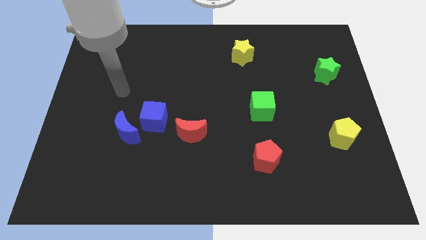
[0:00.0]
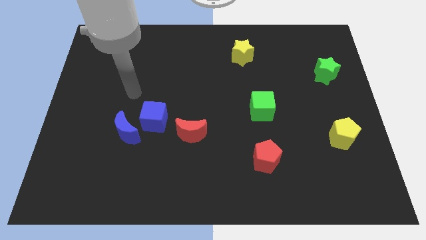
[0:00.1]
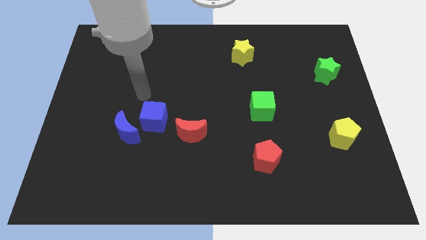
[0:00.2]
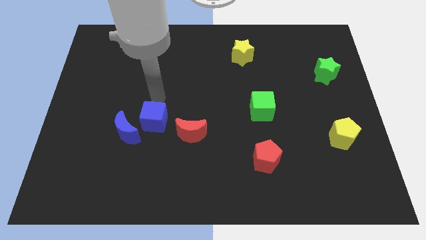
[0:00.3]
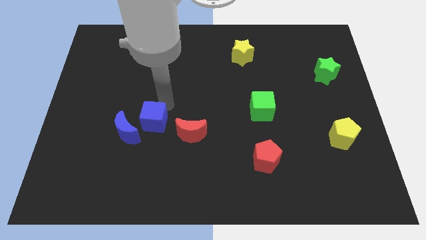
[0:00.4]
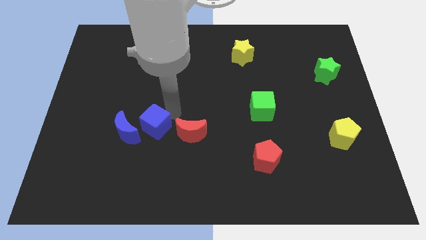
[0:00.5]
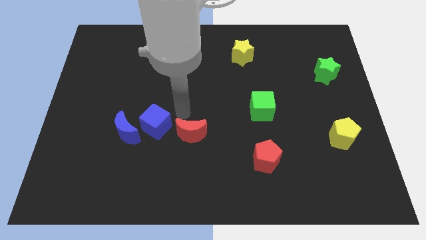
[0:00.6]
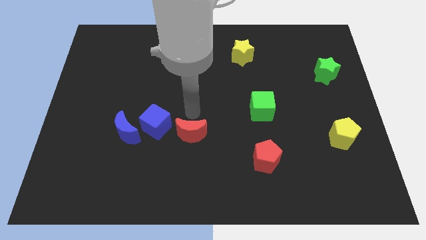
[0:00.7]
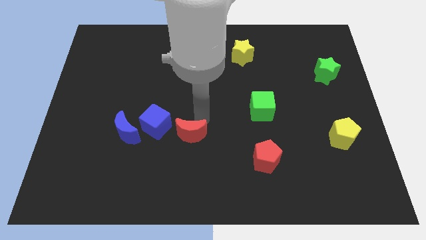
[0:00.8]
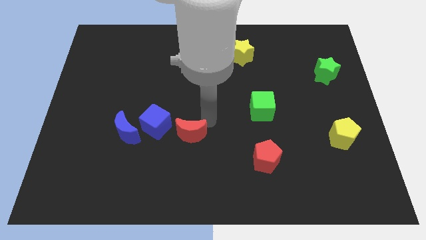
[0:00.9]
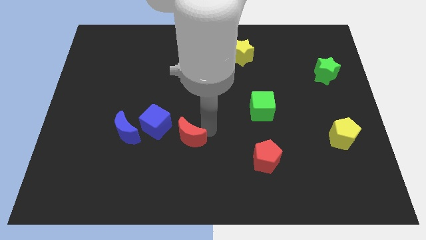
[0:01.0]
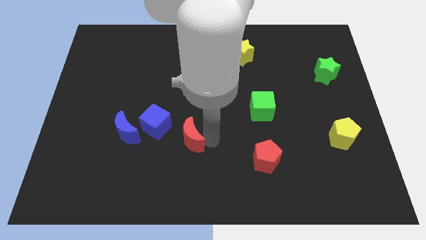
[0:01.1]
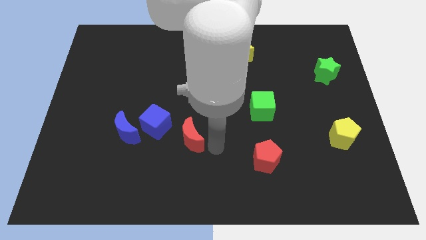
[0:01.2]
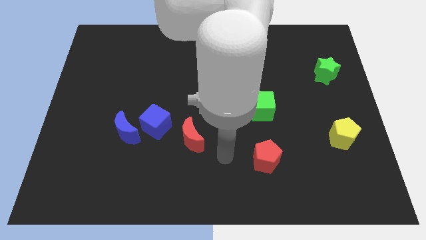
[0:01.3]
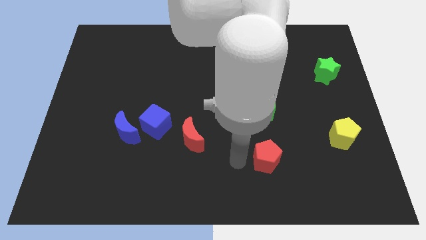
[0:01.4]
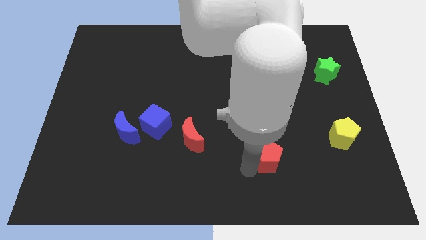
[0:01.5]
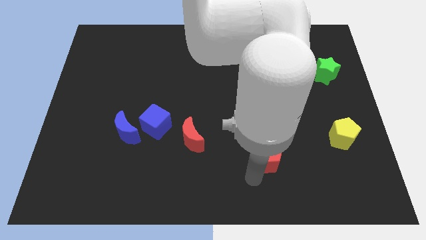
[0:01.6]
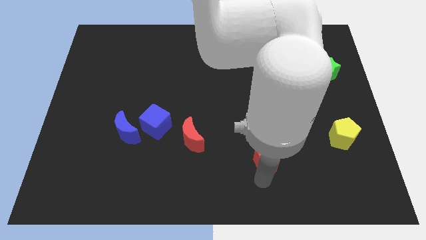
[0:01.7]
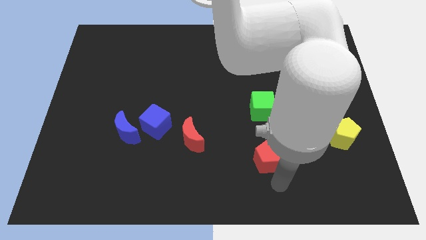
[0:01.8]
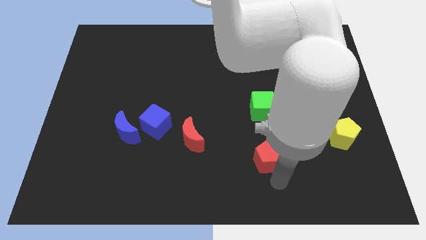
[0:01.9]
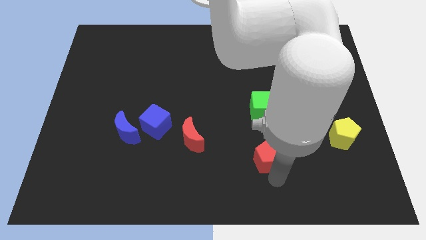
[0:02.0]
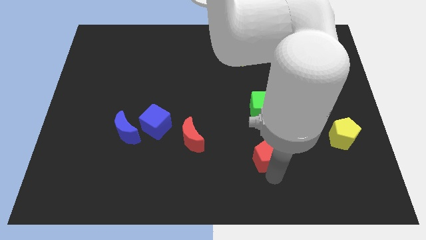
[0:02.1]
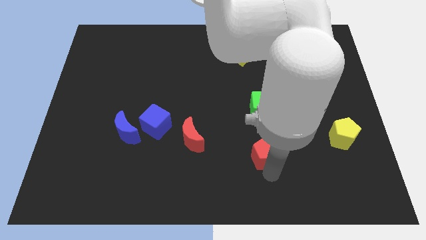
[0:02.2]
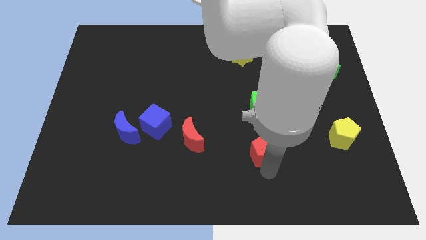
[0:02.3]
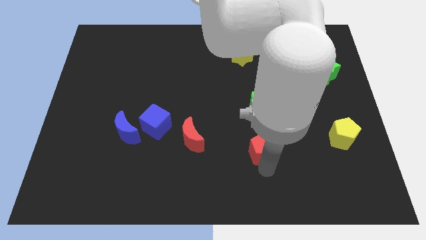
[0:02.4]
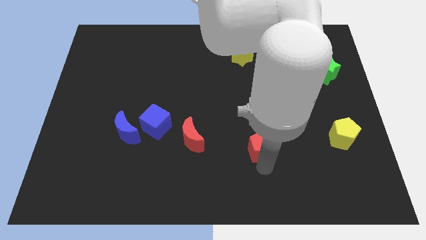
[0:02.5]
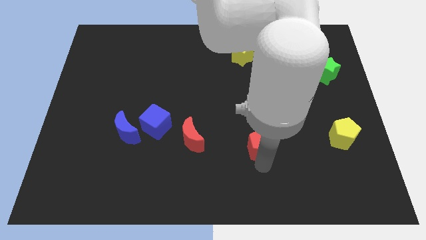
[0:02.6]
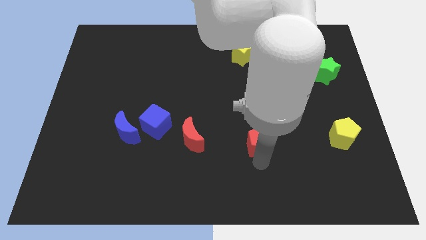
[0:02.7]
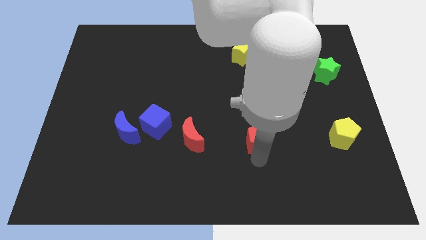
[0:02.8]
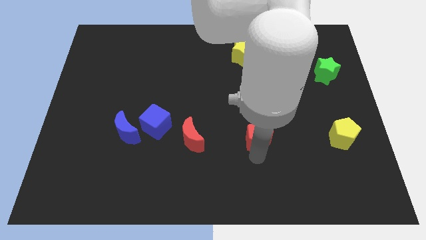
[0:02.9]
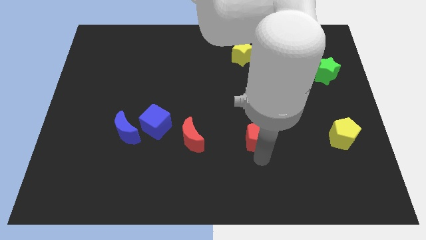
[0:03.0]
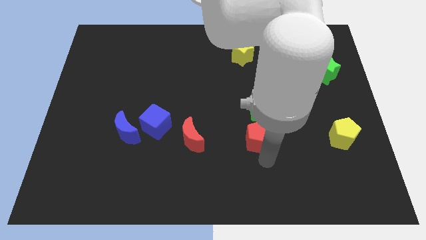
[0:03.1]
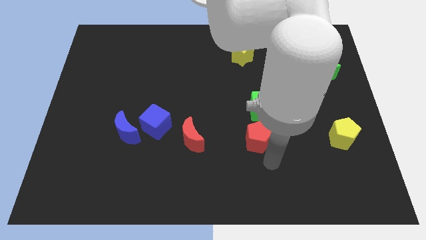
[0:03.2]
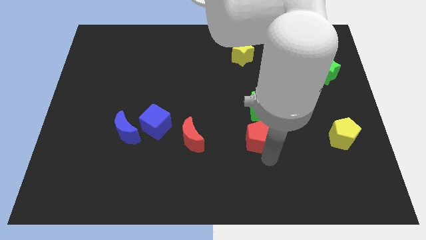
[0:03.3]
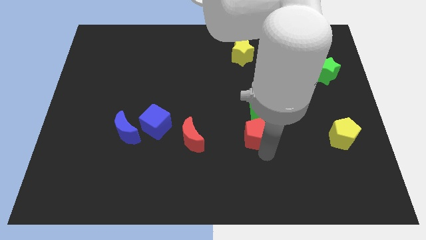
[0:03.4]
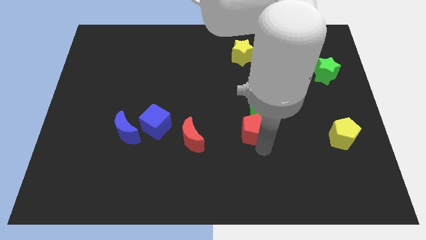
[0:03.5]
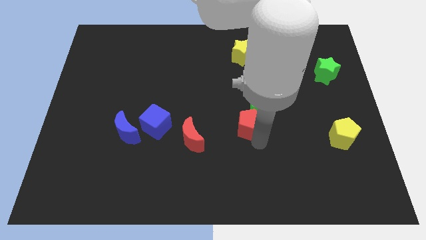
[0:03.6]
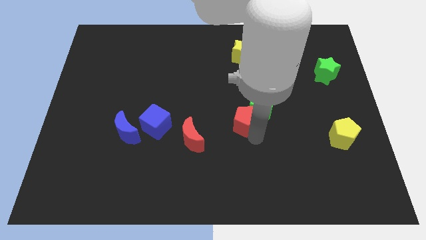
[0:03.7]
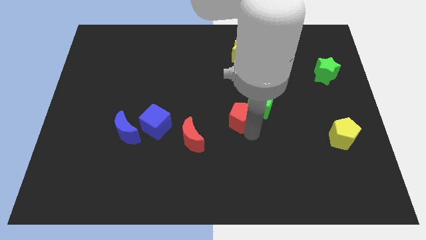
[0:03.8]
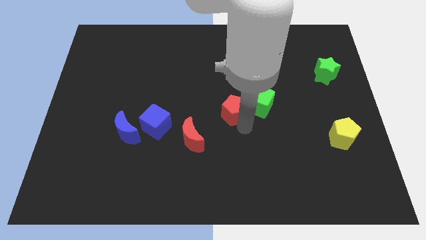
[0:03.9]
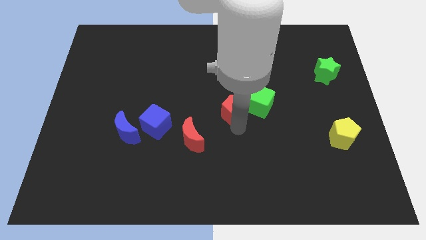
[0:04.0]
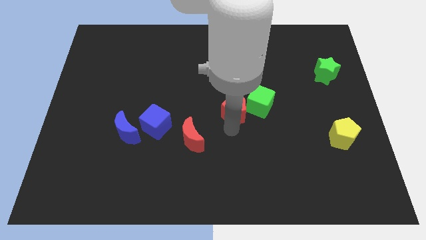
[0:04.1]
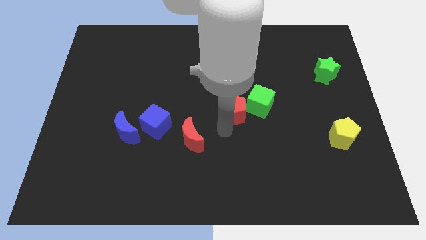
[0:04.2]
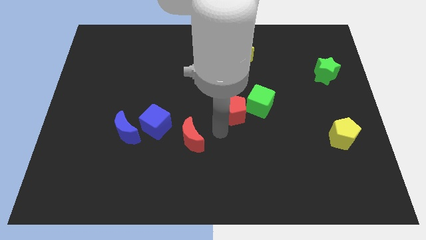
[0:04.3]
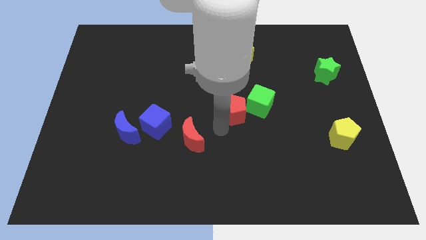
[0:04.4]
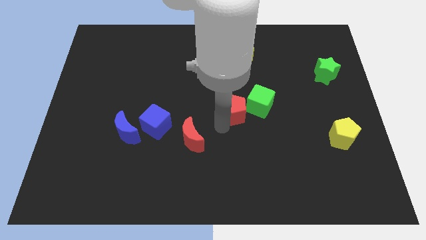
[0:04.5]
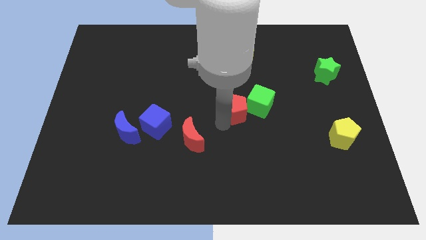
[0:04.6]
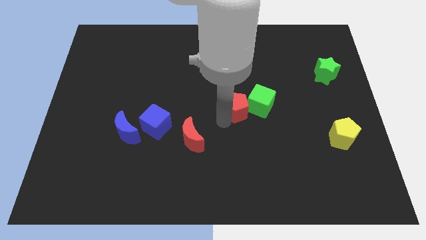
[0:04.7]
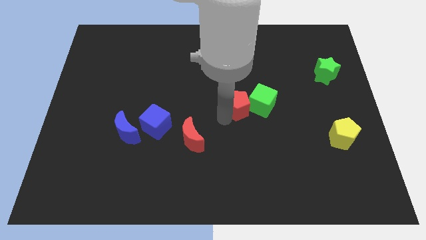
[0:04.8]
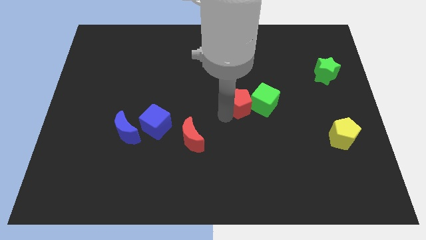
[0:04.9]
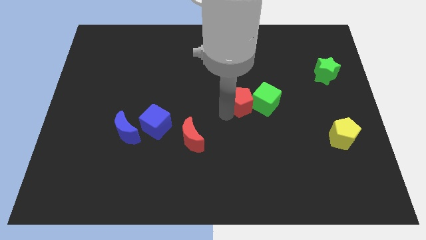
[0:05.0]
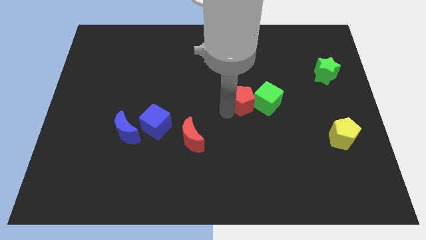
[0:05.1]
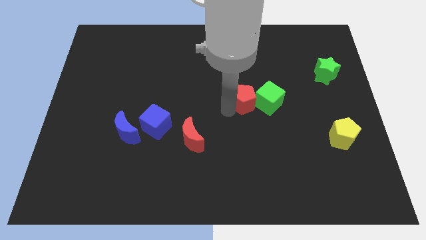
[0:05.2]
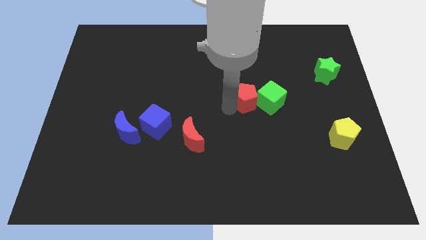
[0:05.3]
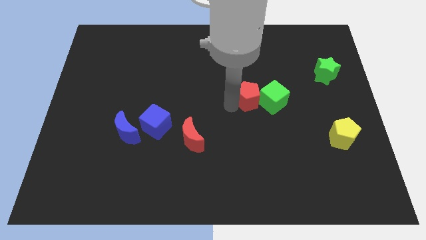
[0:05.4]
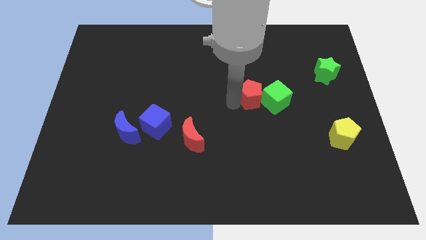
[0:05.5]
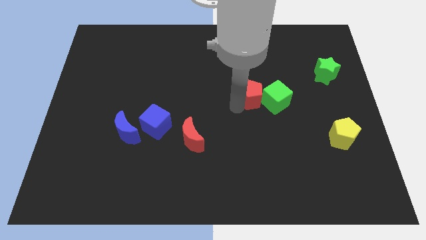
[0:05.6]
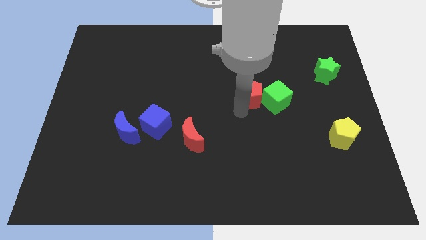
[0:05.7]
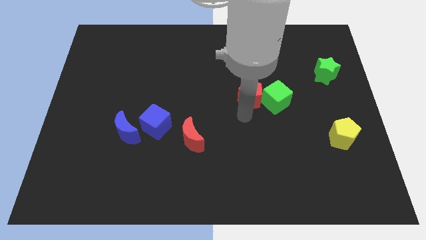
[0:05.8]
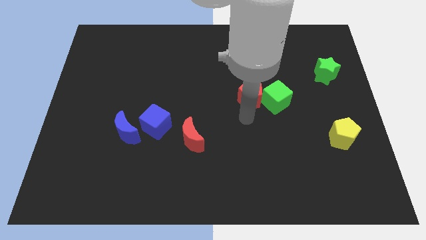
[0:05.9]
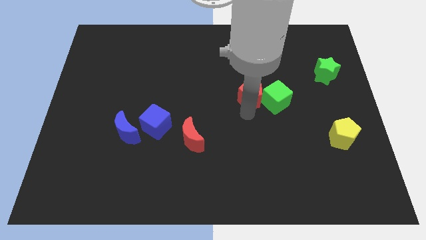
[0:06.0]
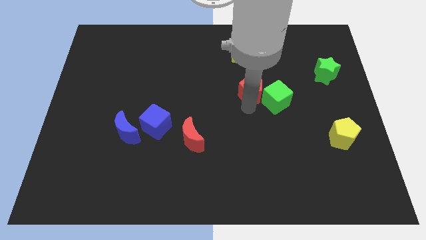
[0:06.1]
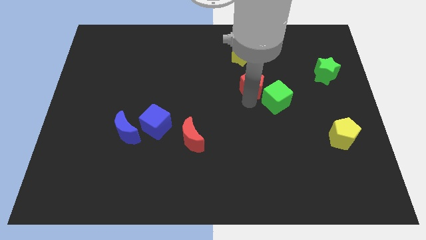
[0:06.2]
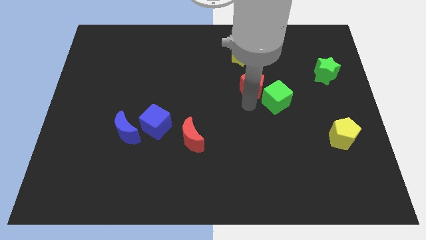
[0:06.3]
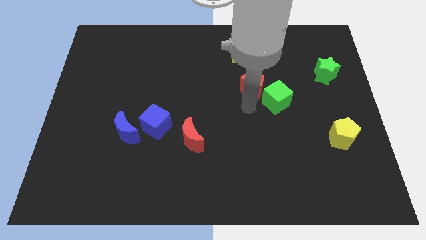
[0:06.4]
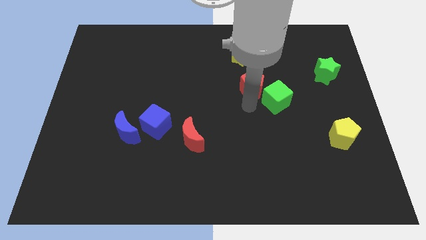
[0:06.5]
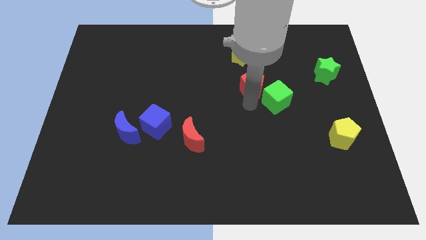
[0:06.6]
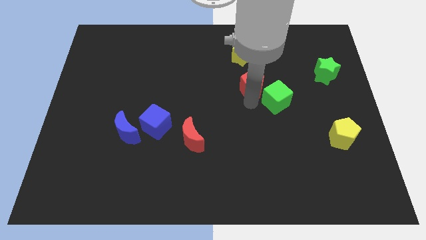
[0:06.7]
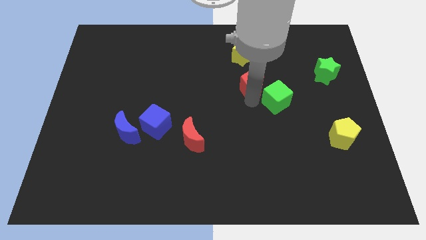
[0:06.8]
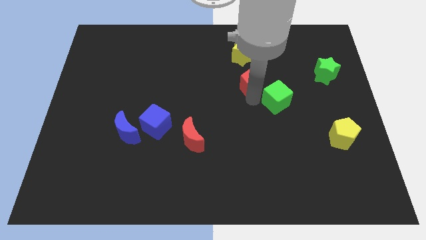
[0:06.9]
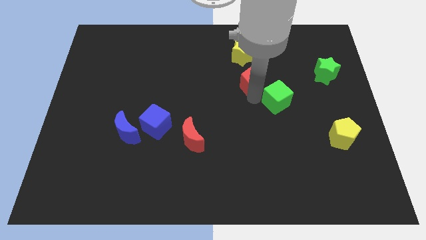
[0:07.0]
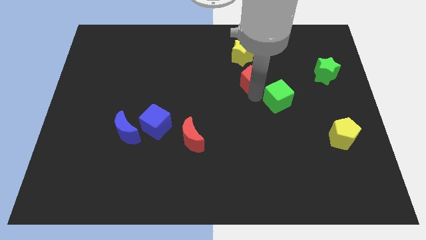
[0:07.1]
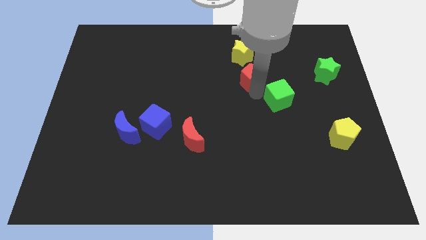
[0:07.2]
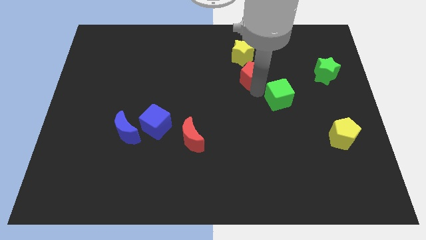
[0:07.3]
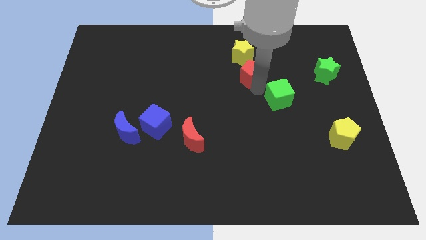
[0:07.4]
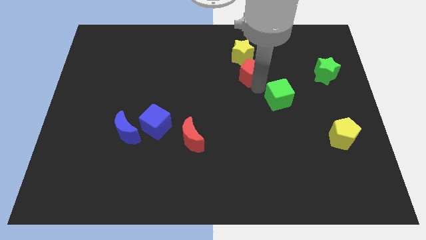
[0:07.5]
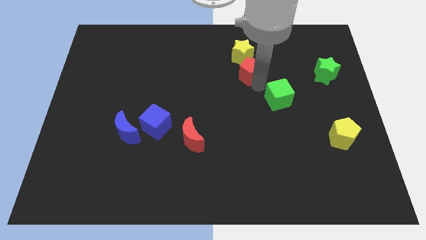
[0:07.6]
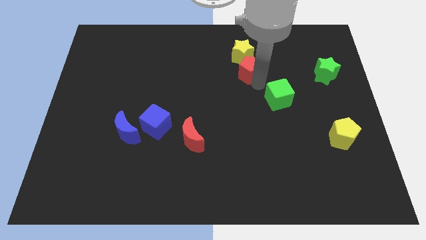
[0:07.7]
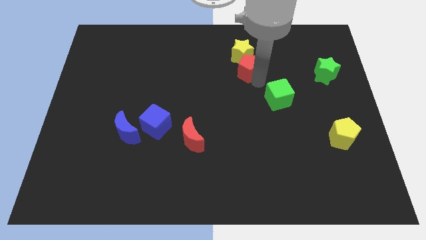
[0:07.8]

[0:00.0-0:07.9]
slide the red pentagon to the yellow star

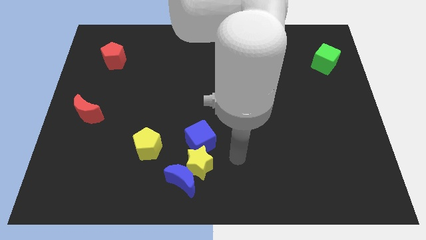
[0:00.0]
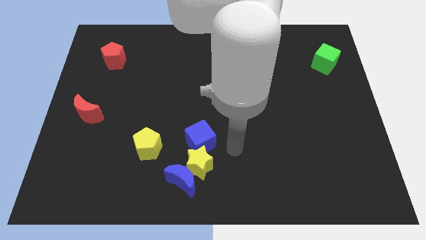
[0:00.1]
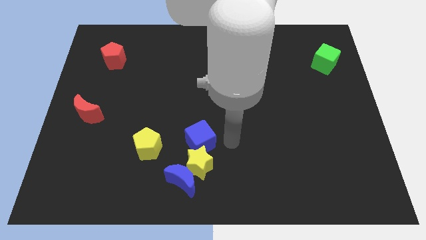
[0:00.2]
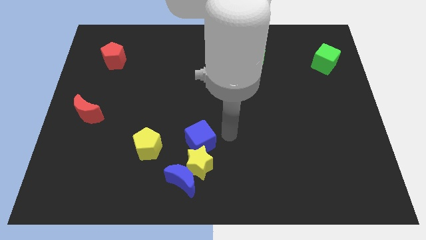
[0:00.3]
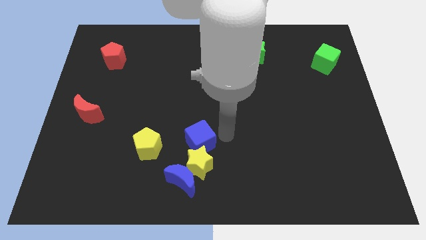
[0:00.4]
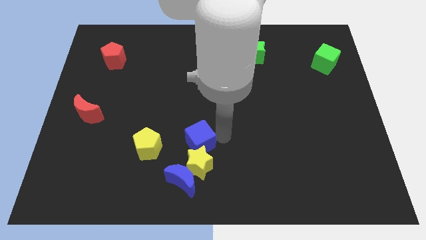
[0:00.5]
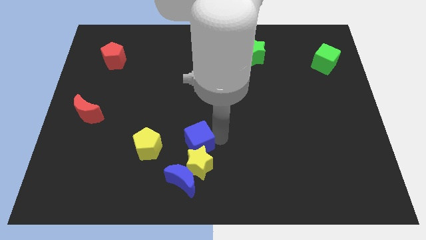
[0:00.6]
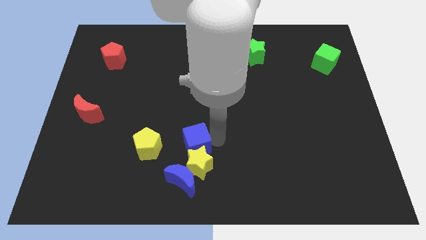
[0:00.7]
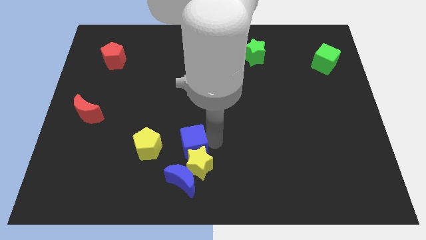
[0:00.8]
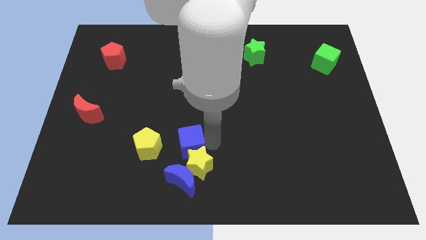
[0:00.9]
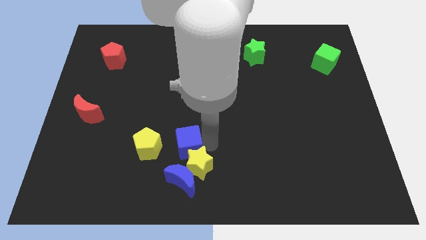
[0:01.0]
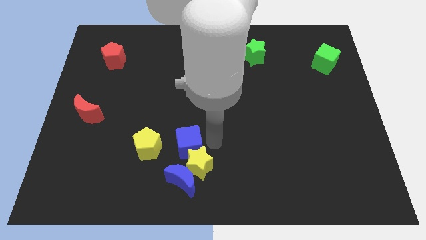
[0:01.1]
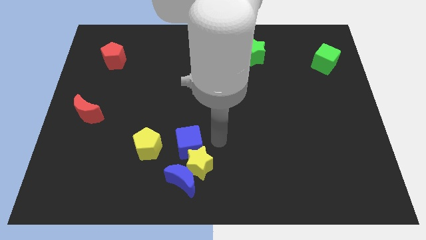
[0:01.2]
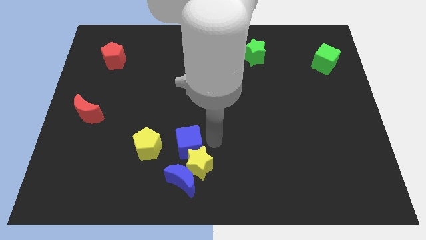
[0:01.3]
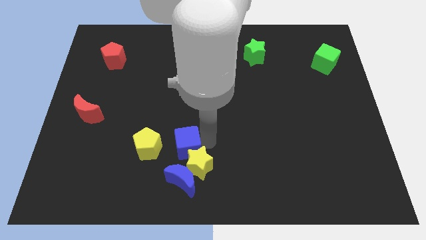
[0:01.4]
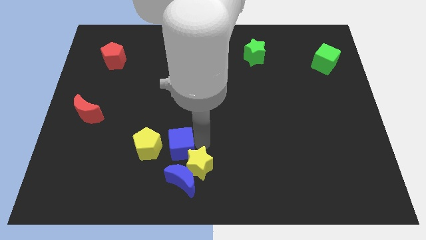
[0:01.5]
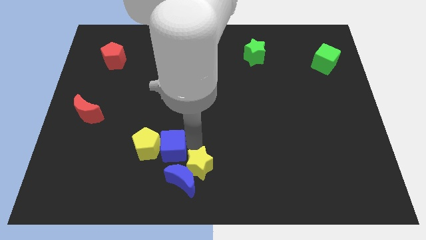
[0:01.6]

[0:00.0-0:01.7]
slide the blue cube towards the yellow pentagon
